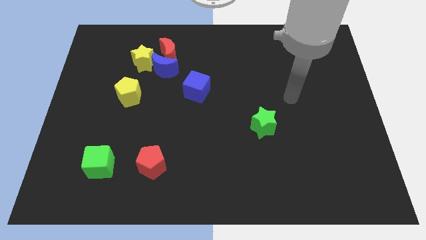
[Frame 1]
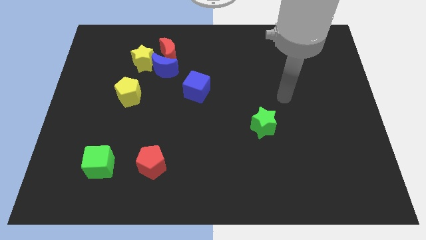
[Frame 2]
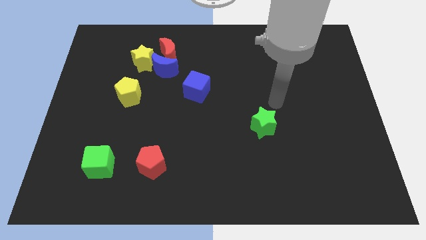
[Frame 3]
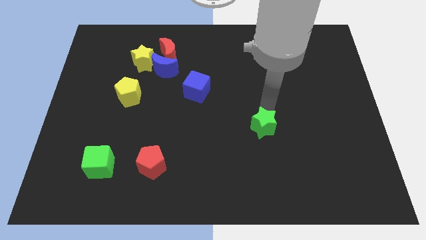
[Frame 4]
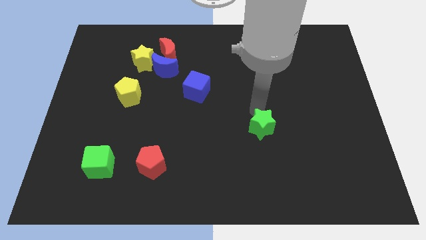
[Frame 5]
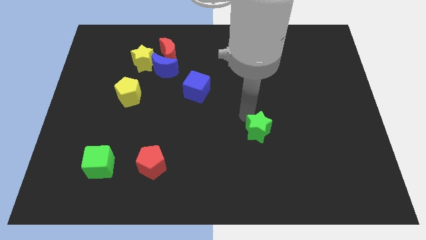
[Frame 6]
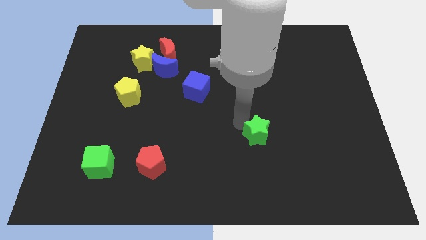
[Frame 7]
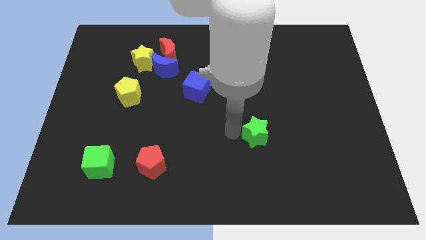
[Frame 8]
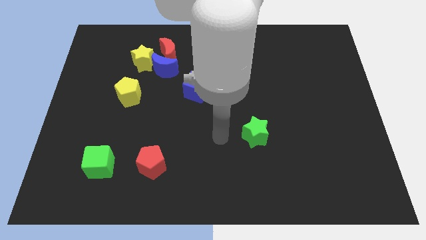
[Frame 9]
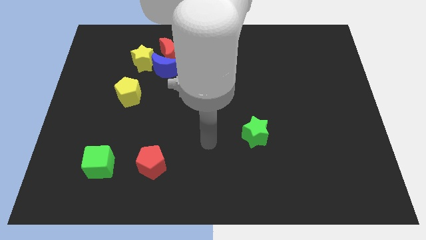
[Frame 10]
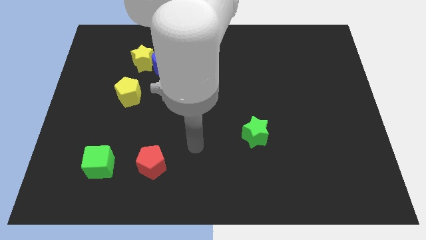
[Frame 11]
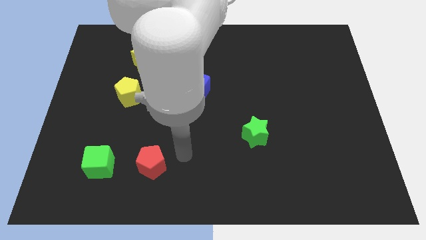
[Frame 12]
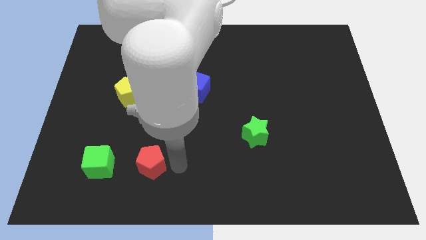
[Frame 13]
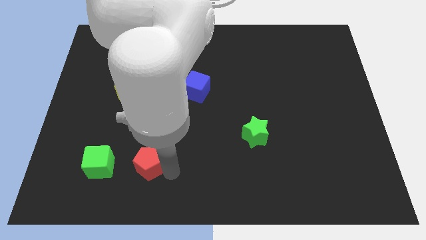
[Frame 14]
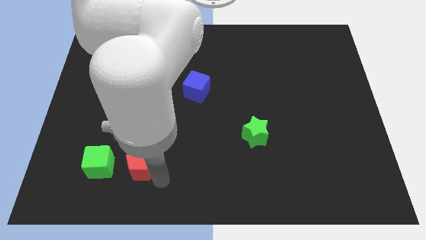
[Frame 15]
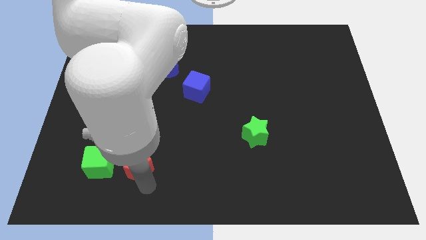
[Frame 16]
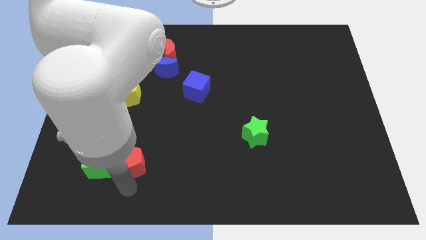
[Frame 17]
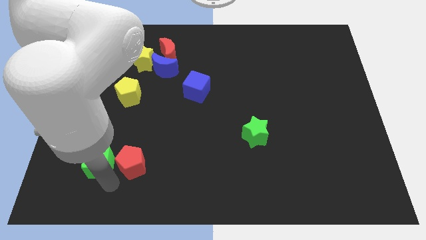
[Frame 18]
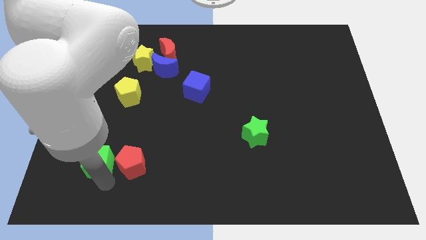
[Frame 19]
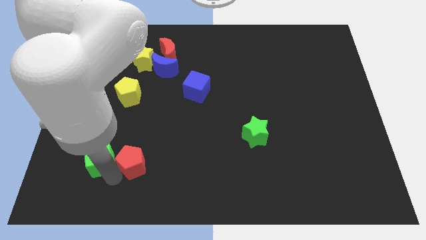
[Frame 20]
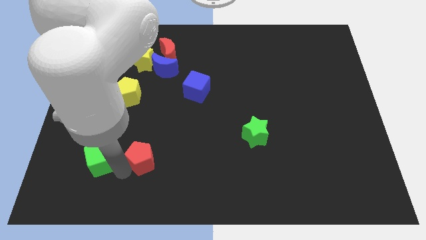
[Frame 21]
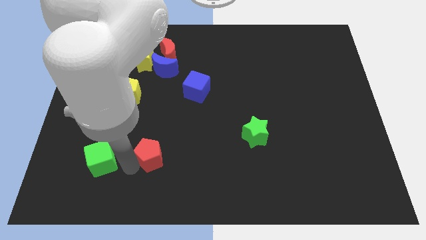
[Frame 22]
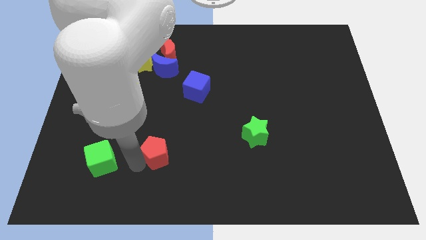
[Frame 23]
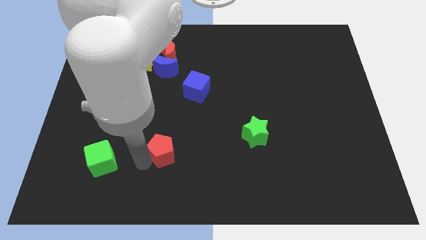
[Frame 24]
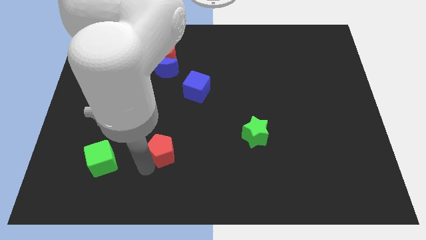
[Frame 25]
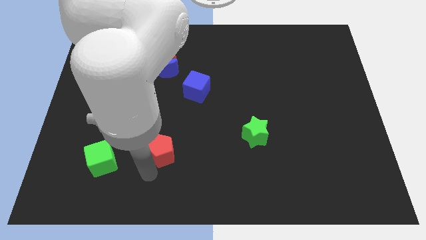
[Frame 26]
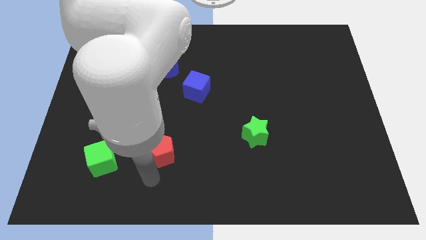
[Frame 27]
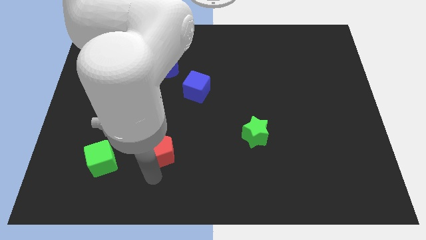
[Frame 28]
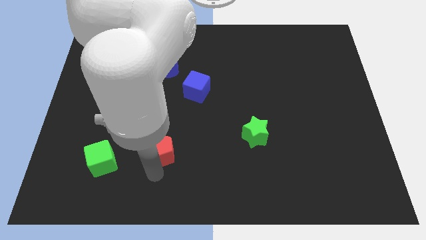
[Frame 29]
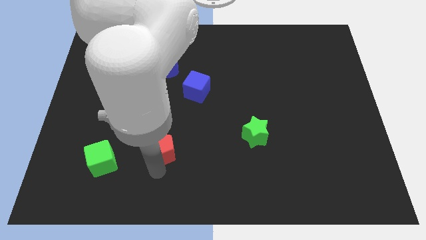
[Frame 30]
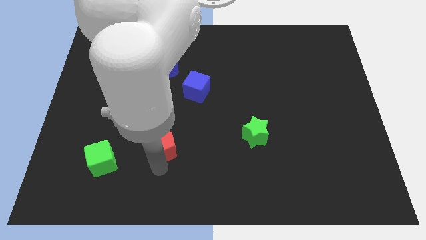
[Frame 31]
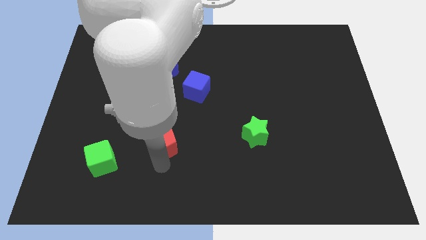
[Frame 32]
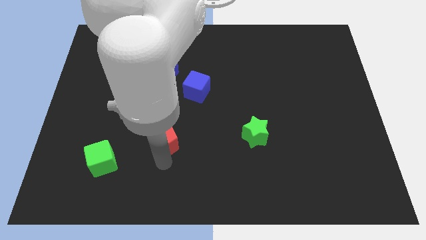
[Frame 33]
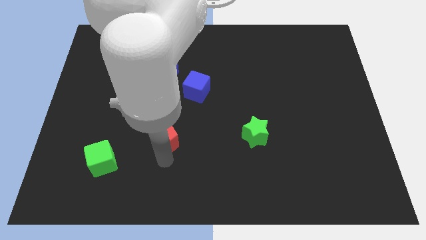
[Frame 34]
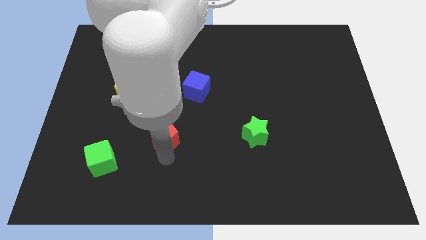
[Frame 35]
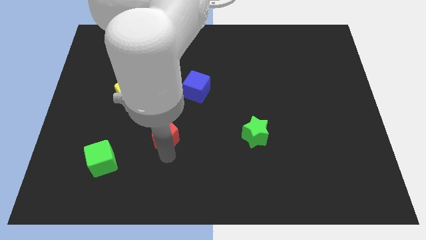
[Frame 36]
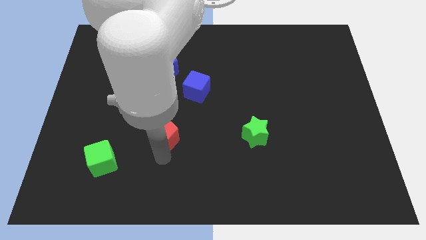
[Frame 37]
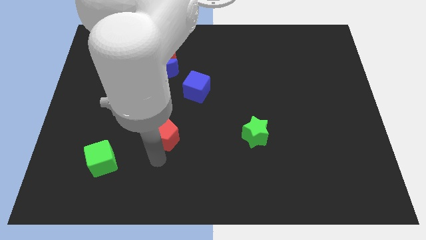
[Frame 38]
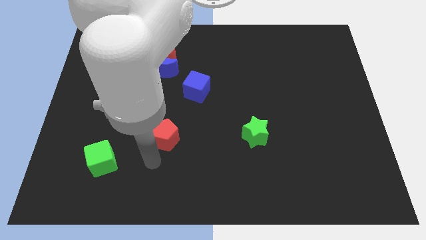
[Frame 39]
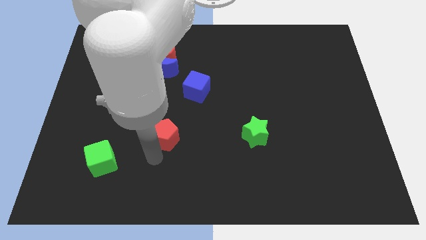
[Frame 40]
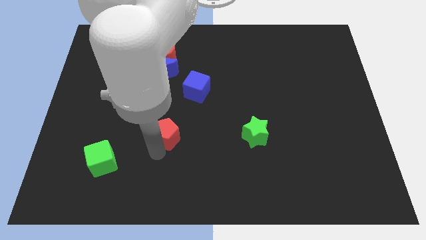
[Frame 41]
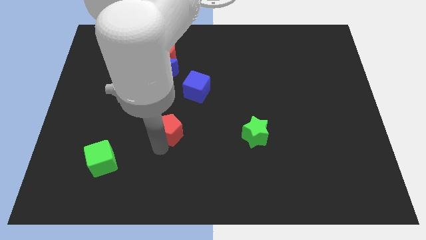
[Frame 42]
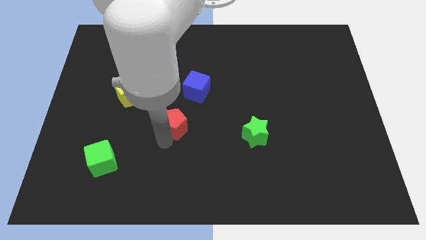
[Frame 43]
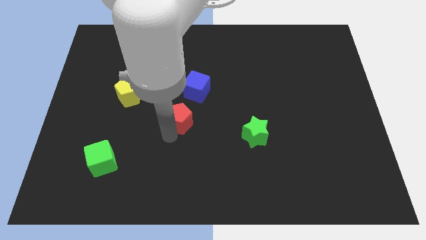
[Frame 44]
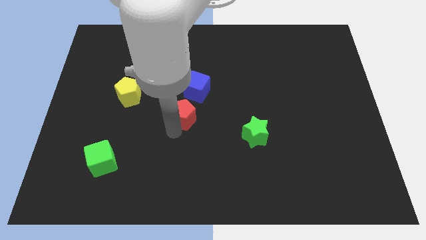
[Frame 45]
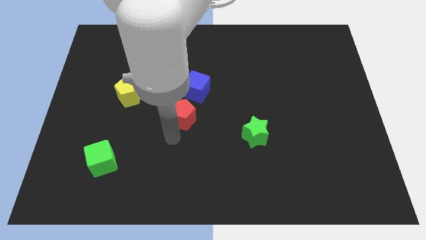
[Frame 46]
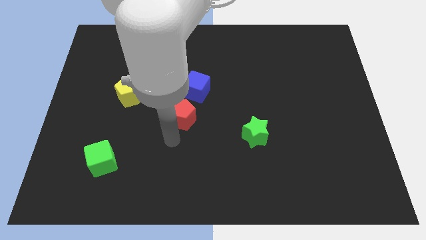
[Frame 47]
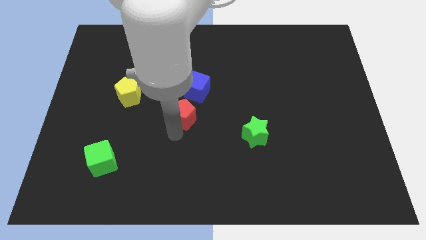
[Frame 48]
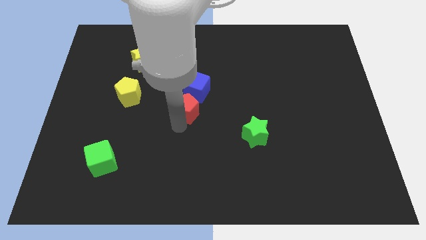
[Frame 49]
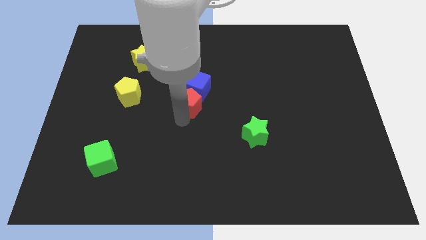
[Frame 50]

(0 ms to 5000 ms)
push the red pentagon to the blue cube

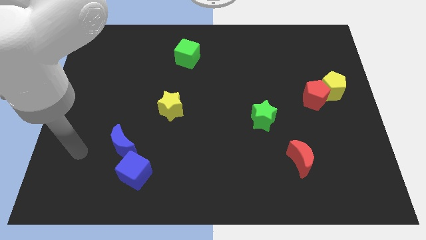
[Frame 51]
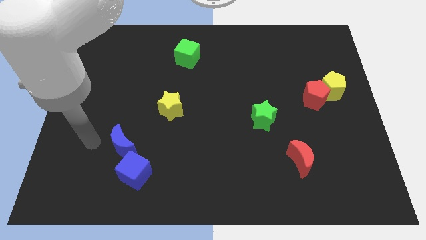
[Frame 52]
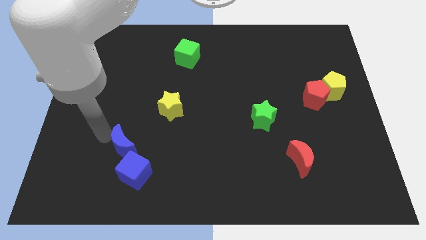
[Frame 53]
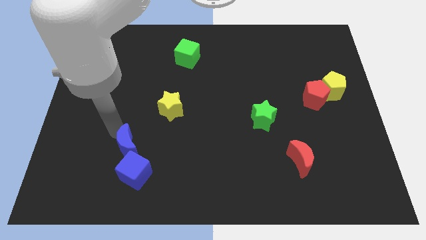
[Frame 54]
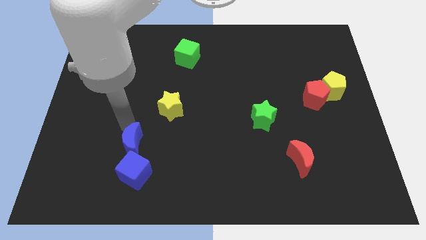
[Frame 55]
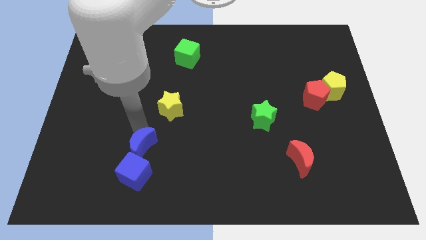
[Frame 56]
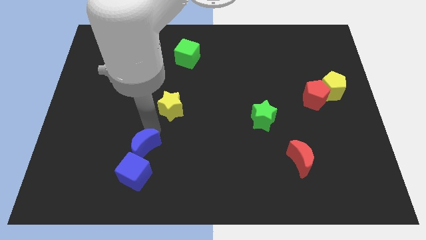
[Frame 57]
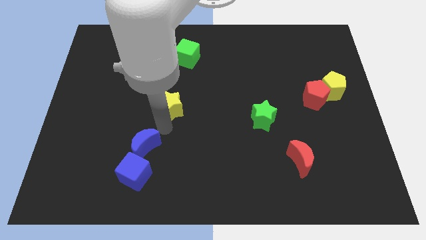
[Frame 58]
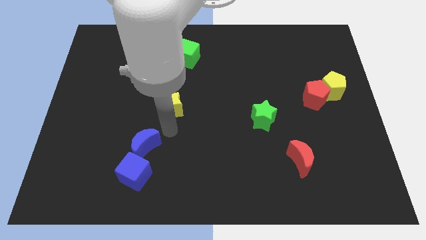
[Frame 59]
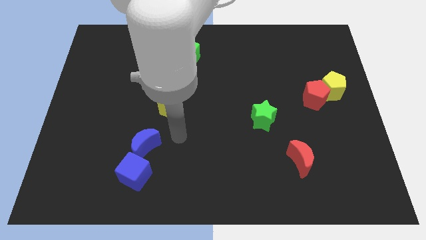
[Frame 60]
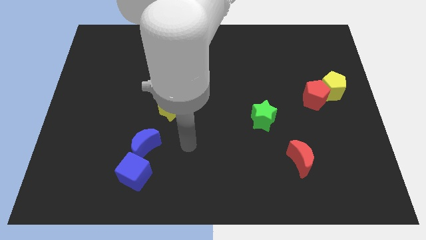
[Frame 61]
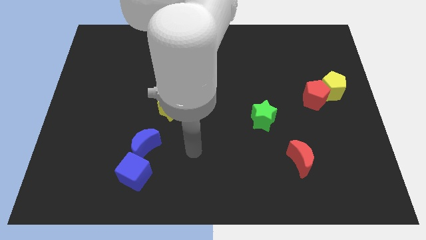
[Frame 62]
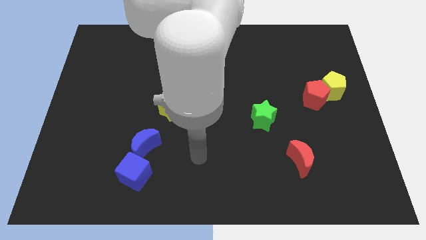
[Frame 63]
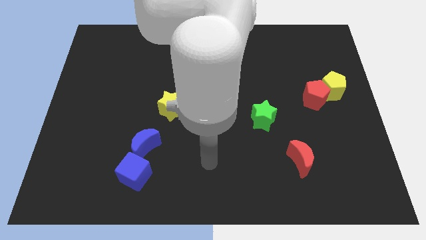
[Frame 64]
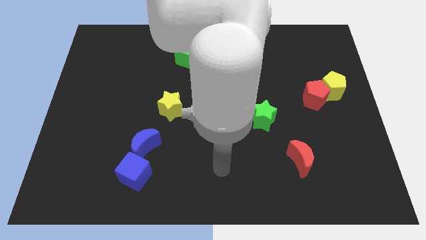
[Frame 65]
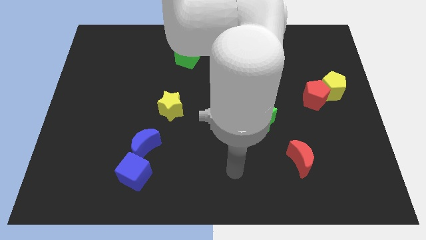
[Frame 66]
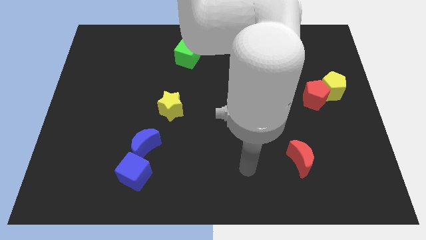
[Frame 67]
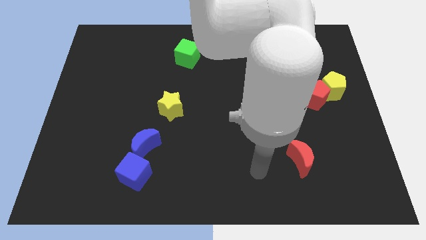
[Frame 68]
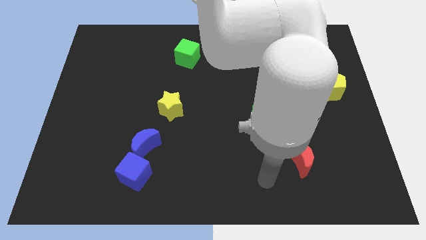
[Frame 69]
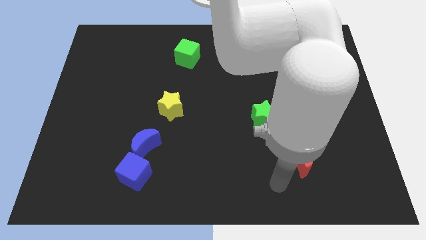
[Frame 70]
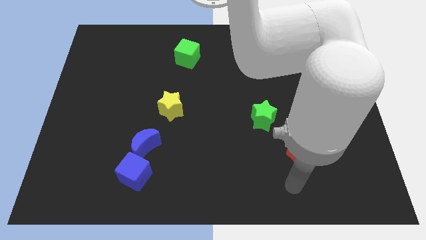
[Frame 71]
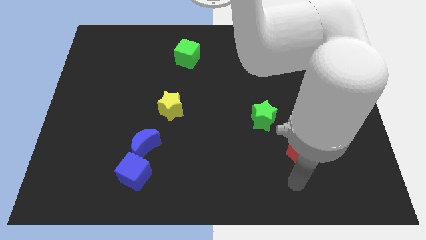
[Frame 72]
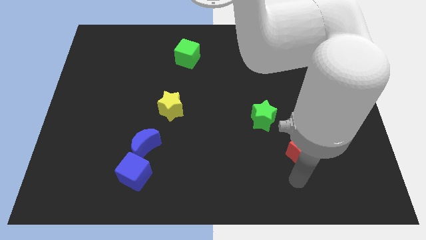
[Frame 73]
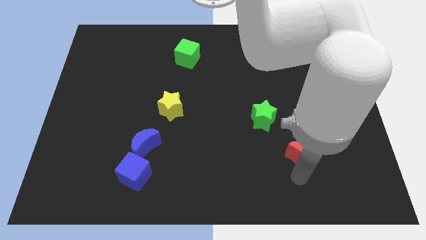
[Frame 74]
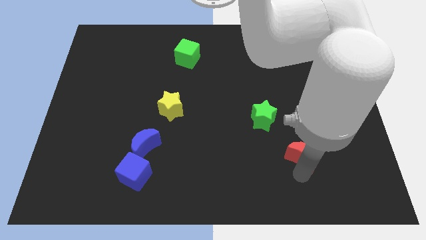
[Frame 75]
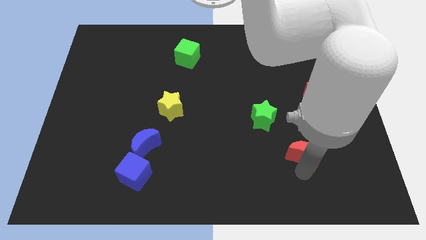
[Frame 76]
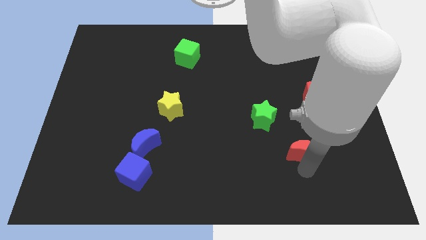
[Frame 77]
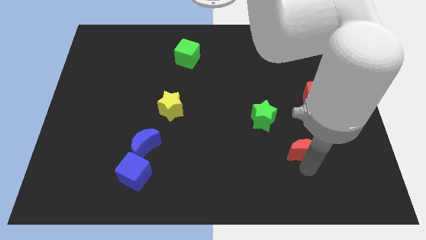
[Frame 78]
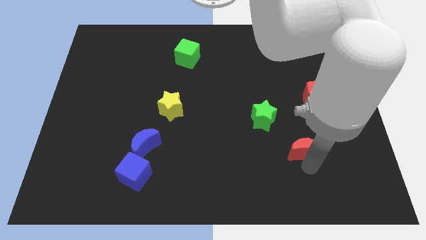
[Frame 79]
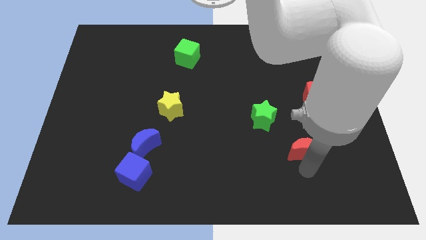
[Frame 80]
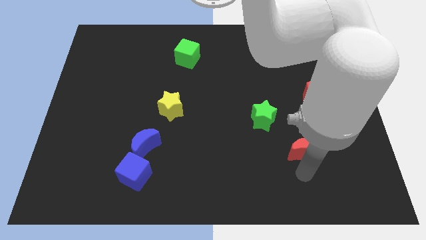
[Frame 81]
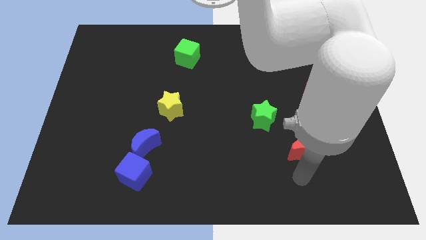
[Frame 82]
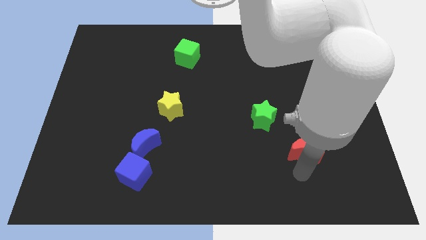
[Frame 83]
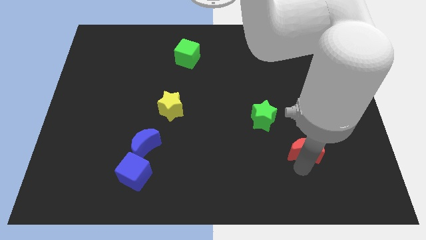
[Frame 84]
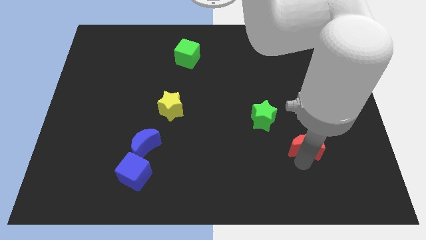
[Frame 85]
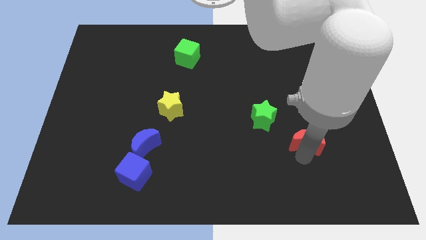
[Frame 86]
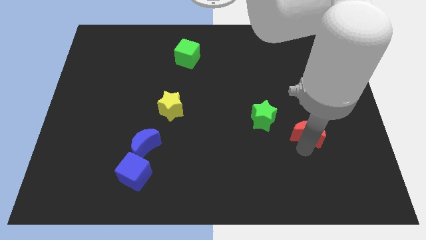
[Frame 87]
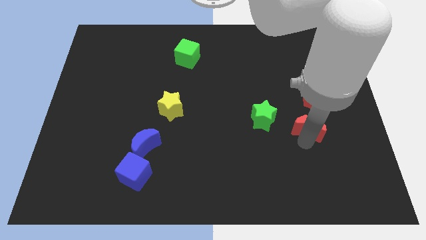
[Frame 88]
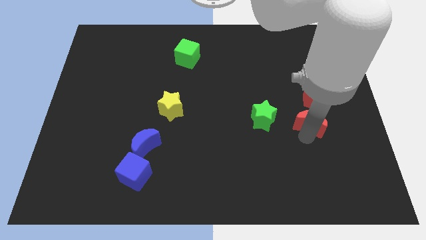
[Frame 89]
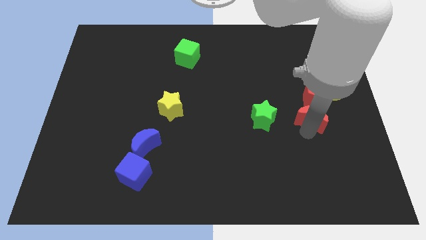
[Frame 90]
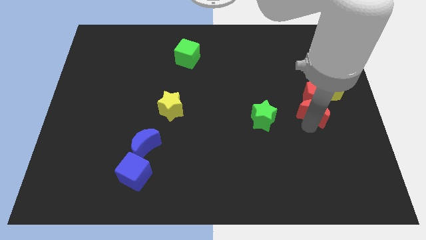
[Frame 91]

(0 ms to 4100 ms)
move the red moon towards the red pentagon
